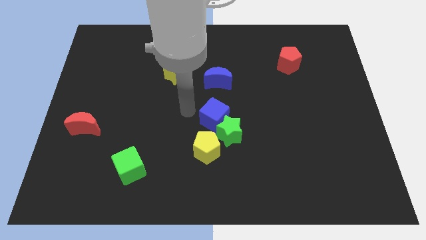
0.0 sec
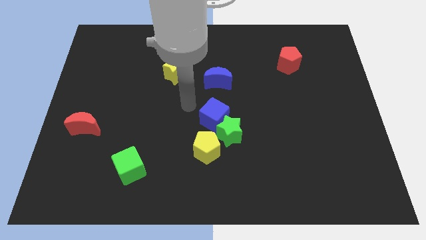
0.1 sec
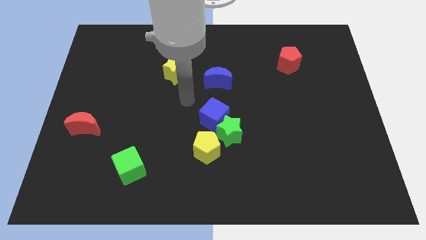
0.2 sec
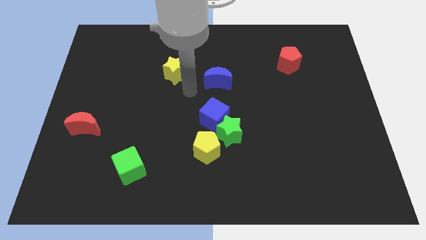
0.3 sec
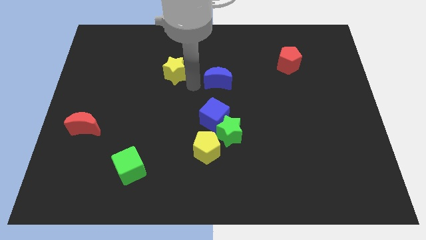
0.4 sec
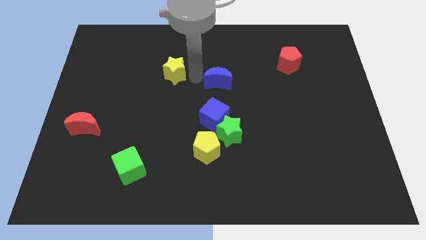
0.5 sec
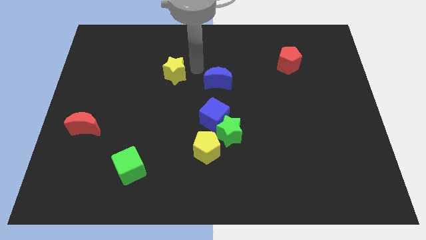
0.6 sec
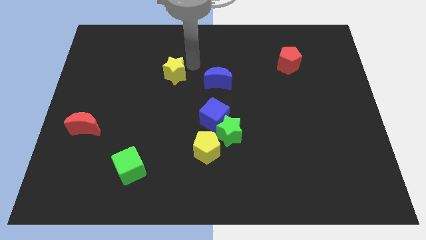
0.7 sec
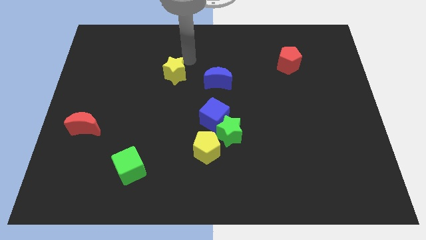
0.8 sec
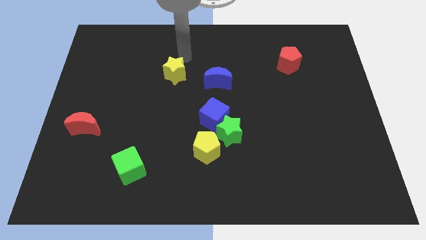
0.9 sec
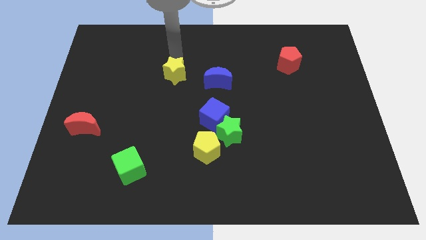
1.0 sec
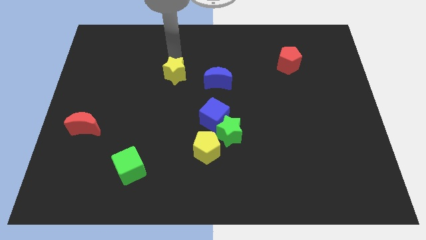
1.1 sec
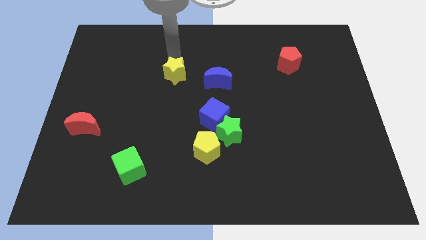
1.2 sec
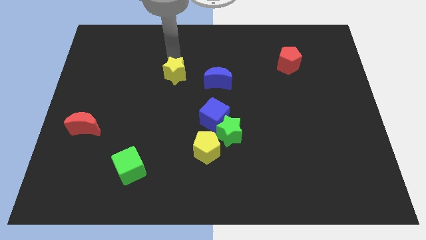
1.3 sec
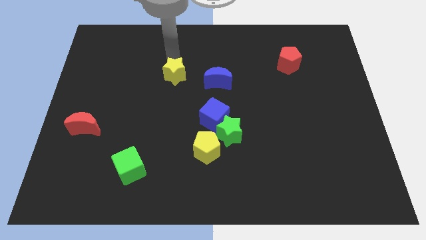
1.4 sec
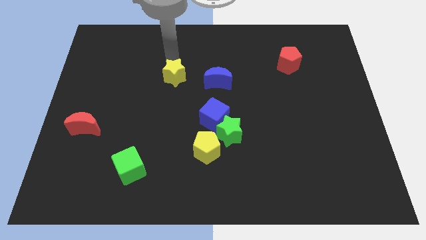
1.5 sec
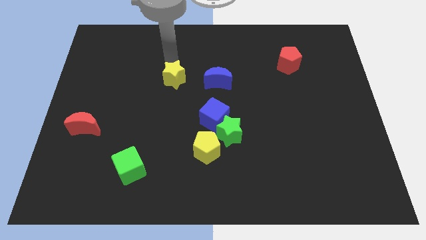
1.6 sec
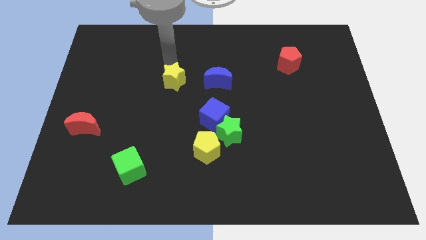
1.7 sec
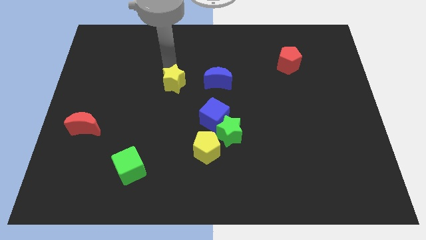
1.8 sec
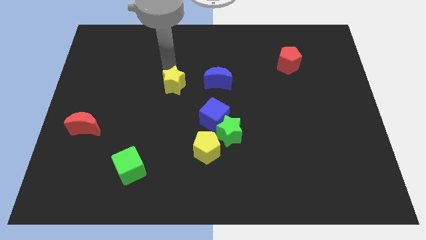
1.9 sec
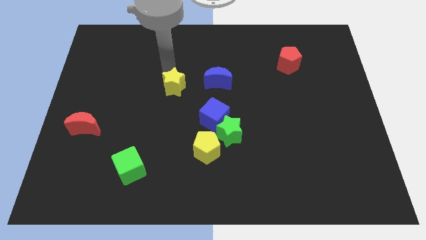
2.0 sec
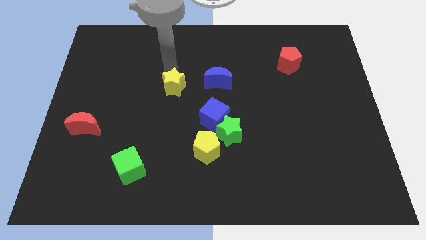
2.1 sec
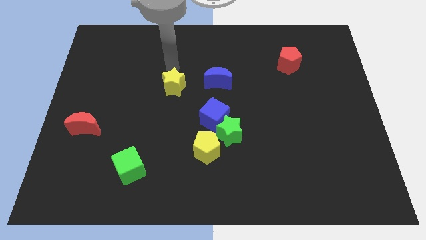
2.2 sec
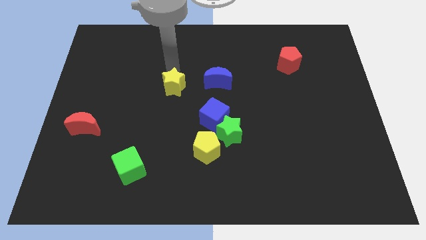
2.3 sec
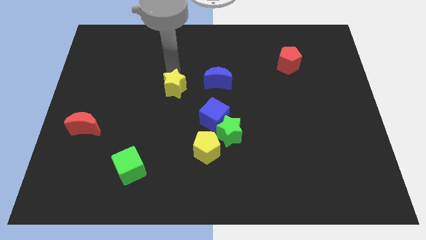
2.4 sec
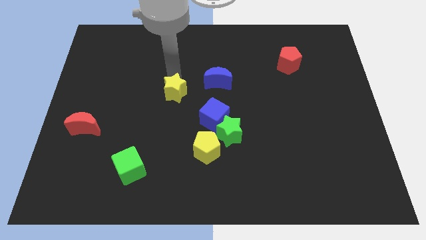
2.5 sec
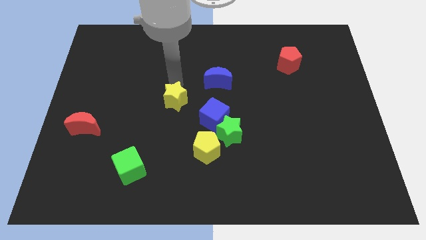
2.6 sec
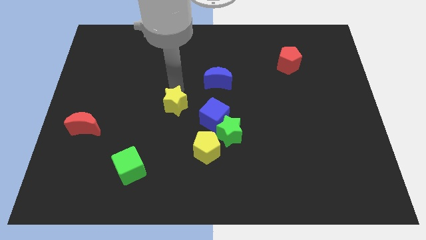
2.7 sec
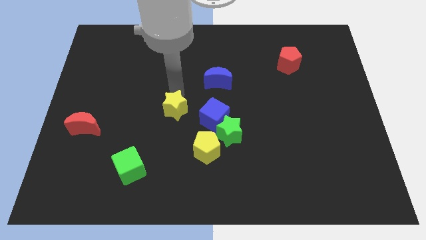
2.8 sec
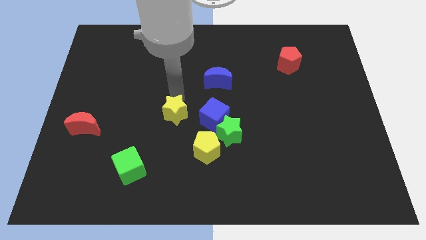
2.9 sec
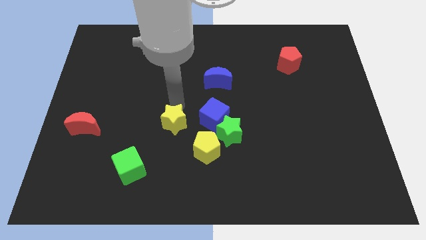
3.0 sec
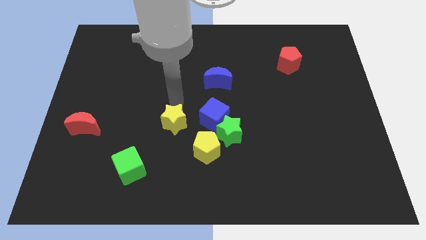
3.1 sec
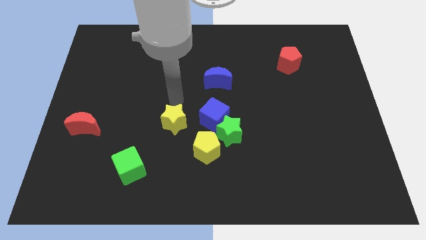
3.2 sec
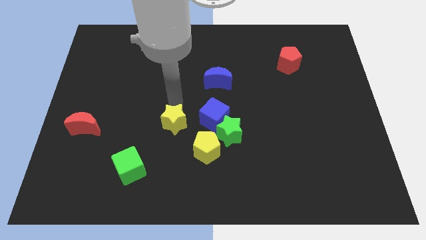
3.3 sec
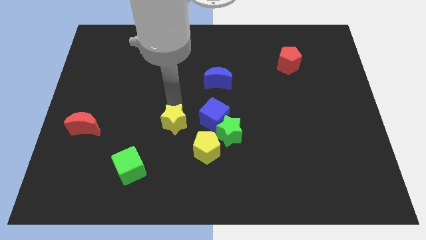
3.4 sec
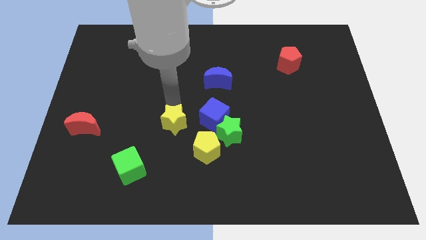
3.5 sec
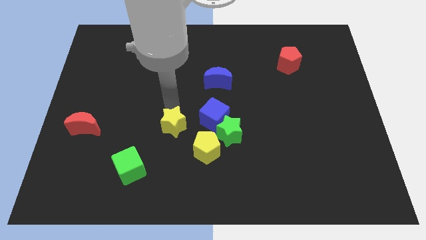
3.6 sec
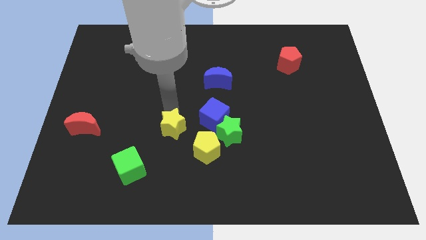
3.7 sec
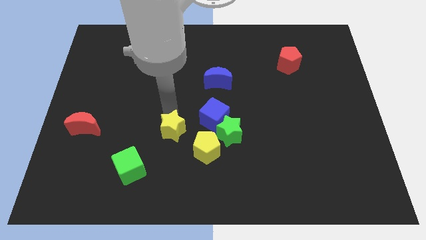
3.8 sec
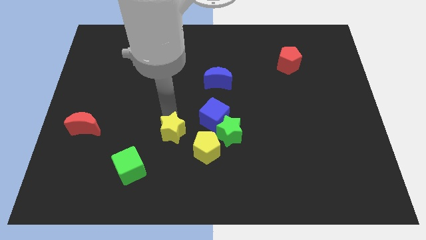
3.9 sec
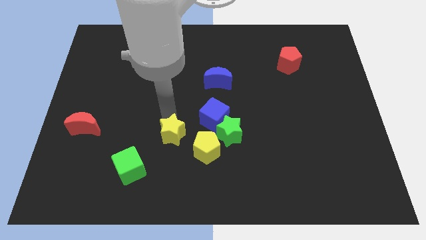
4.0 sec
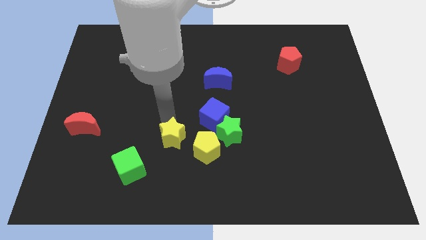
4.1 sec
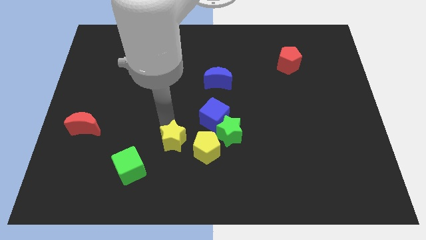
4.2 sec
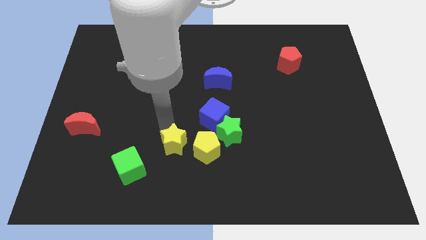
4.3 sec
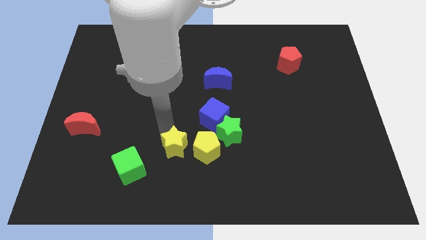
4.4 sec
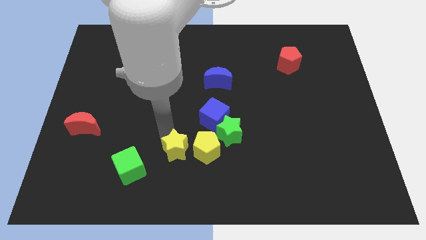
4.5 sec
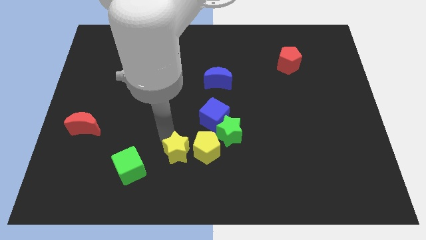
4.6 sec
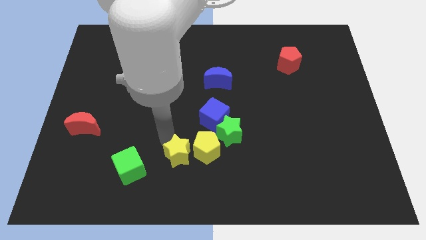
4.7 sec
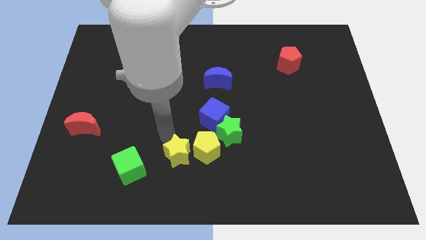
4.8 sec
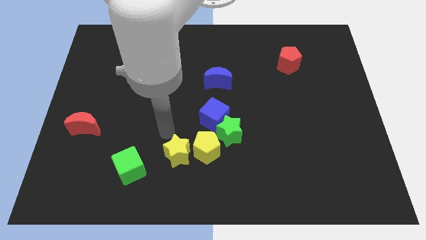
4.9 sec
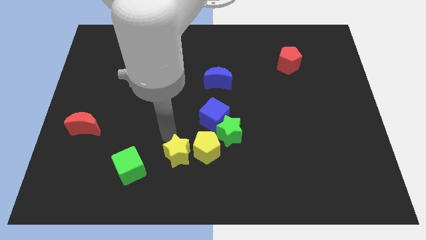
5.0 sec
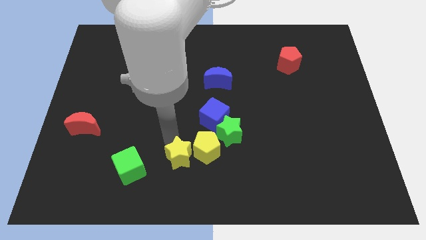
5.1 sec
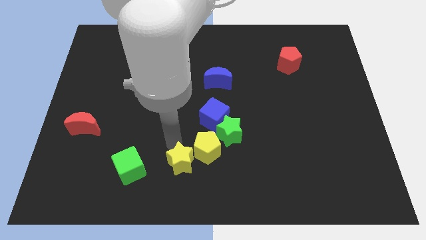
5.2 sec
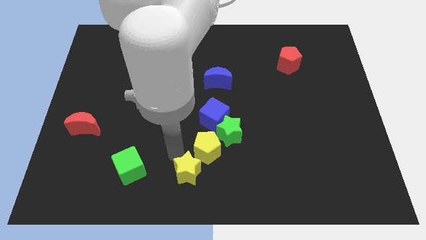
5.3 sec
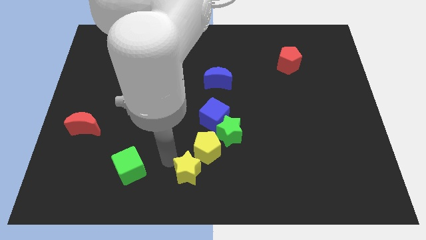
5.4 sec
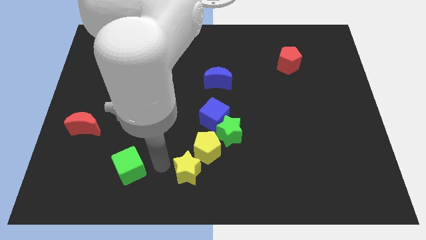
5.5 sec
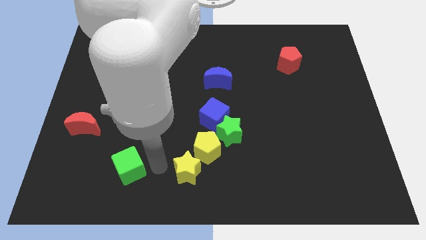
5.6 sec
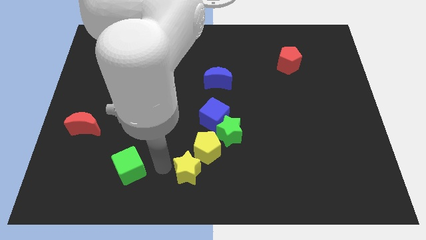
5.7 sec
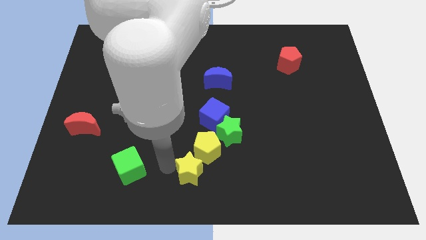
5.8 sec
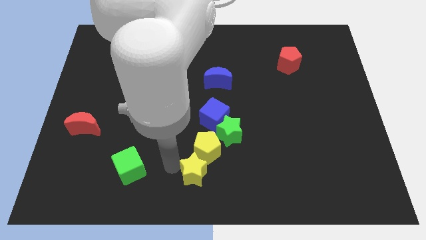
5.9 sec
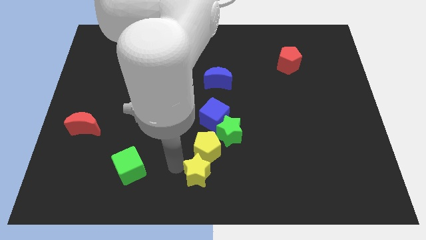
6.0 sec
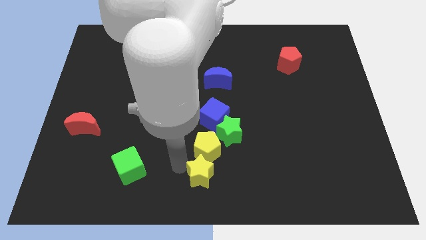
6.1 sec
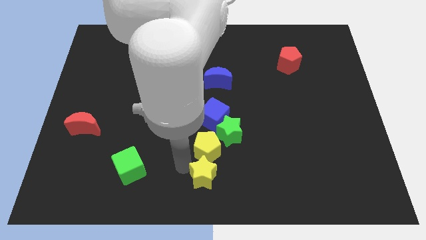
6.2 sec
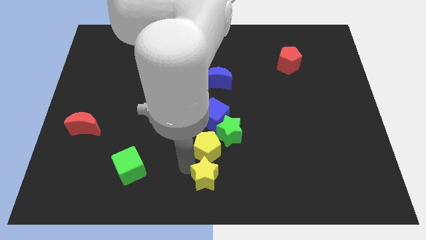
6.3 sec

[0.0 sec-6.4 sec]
slide the yellow star to the bottom of the green star
